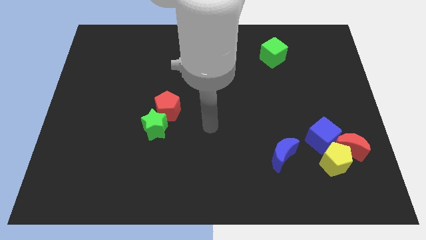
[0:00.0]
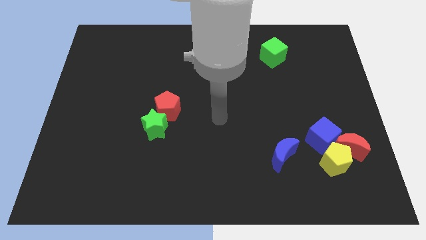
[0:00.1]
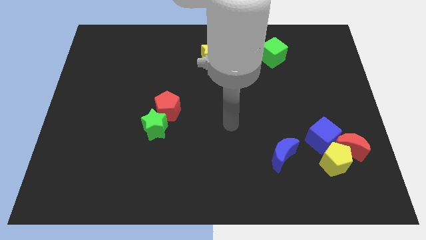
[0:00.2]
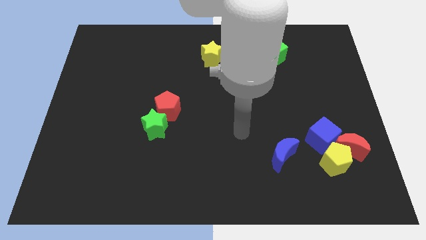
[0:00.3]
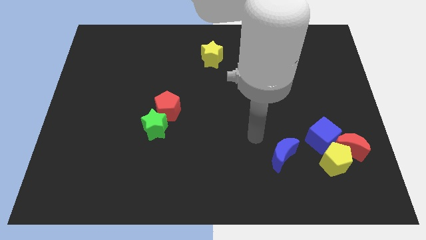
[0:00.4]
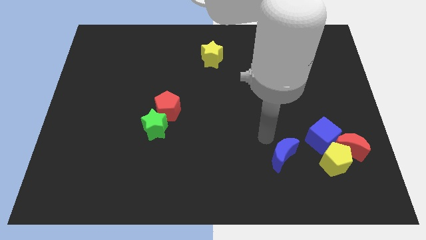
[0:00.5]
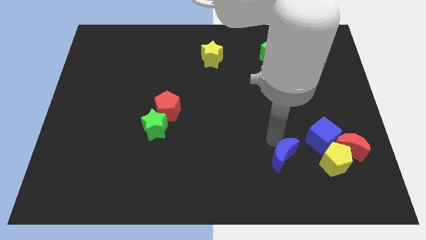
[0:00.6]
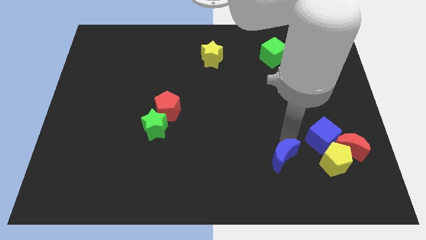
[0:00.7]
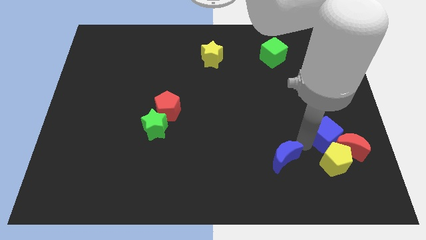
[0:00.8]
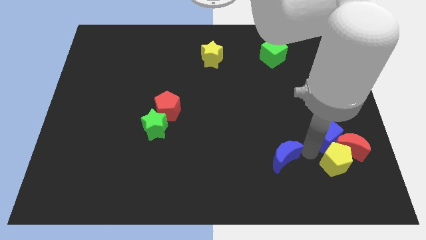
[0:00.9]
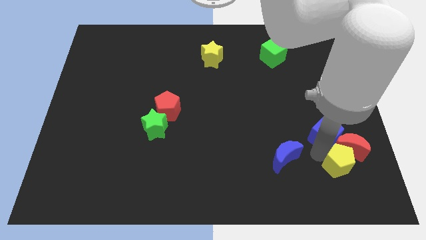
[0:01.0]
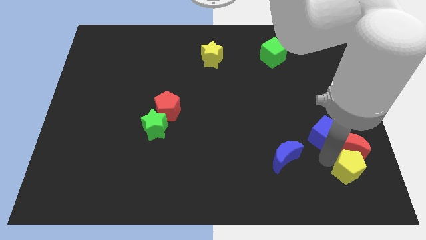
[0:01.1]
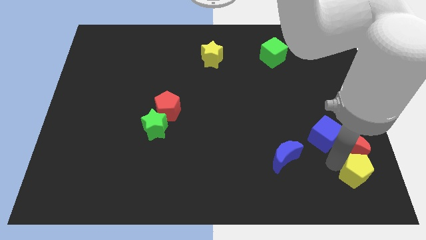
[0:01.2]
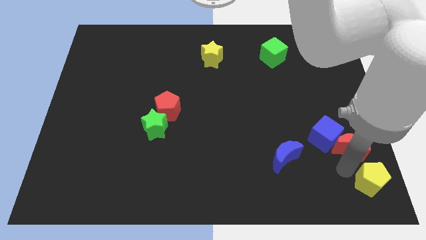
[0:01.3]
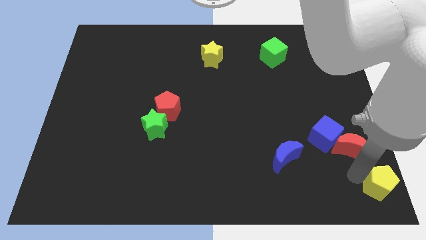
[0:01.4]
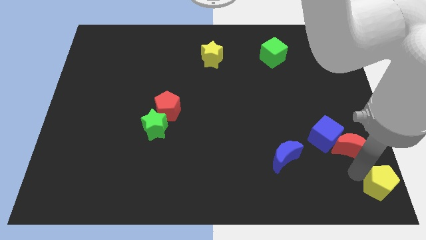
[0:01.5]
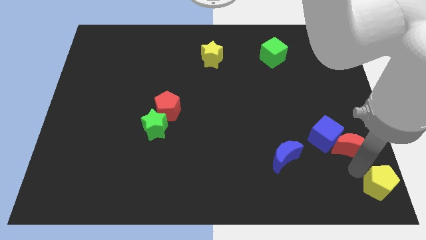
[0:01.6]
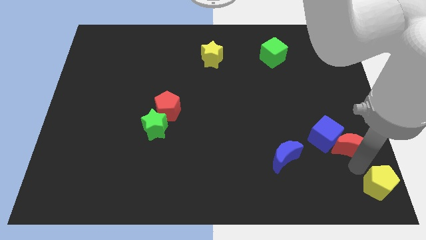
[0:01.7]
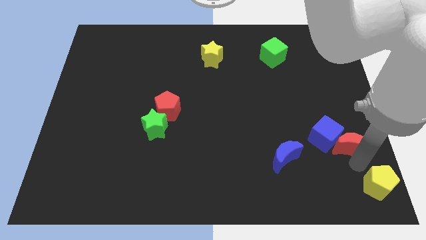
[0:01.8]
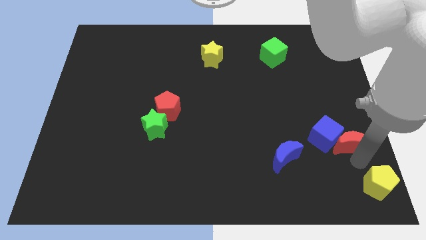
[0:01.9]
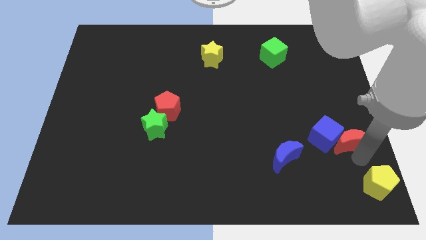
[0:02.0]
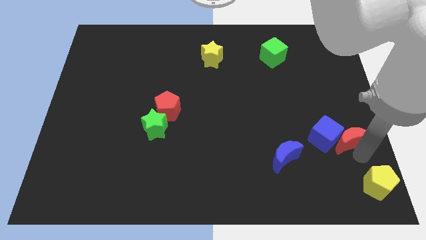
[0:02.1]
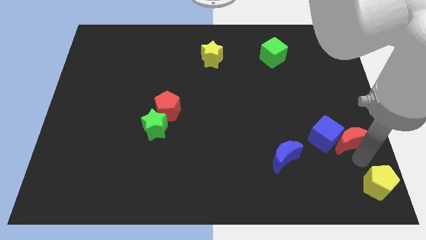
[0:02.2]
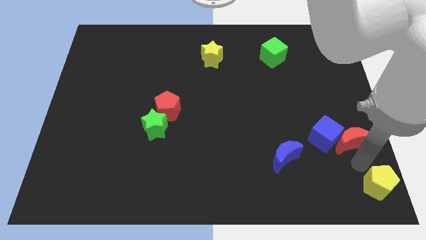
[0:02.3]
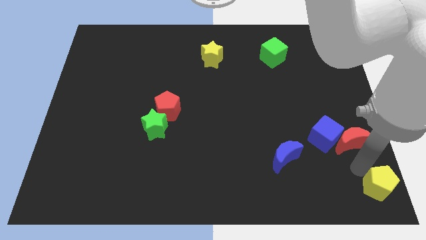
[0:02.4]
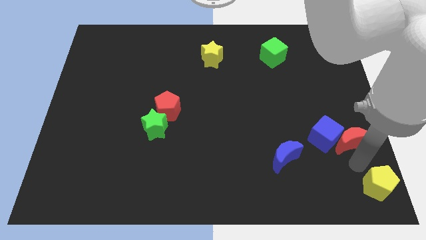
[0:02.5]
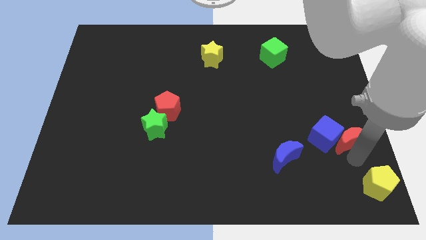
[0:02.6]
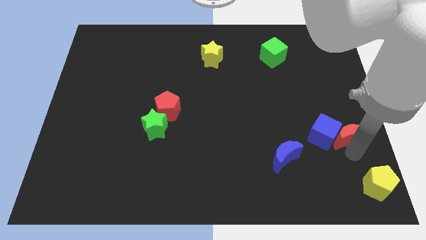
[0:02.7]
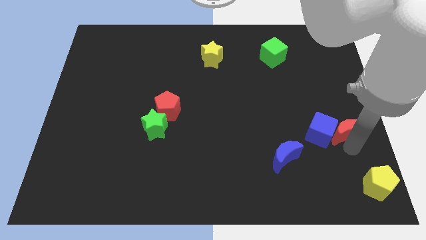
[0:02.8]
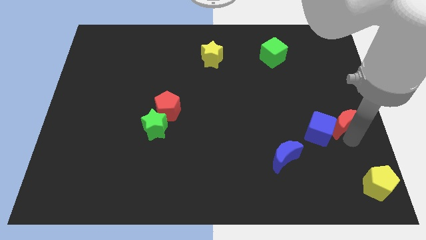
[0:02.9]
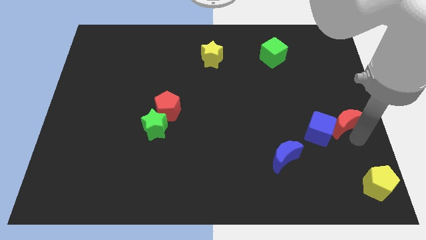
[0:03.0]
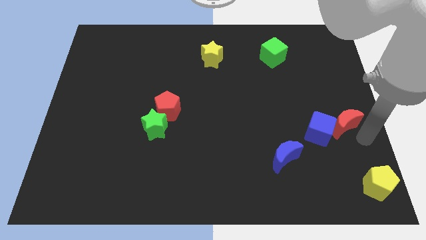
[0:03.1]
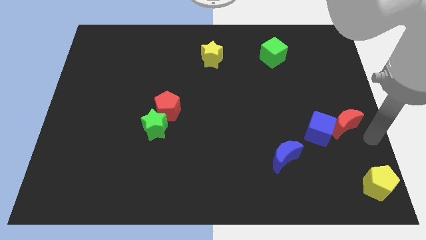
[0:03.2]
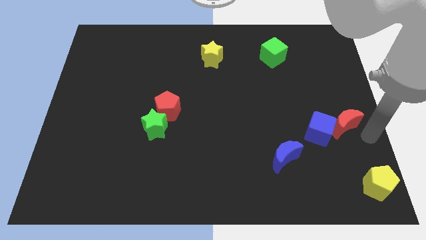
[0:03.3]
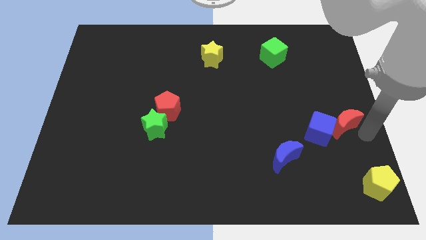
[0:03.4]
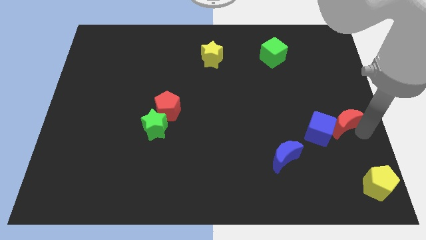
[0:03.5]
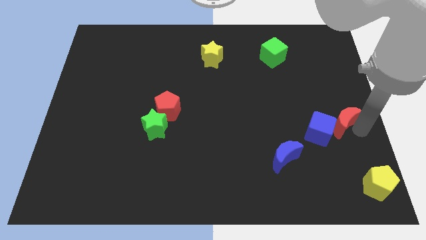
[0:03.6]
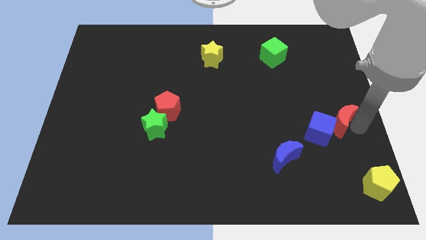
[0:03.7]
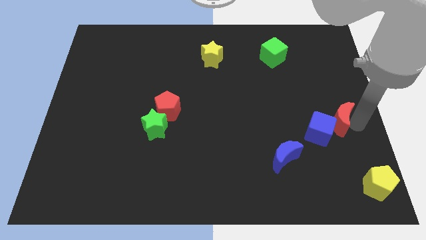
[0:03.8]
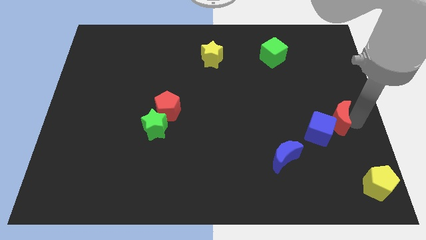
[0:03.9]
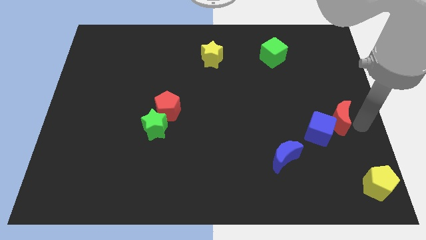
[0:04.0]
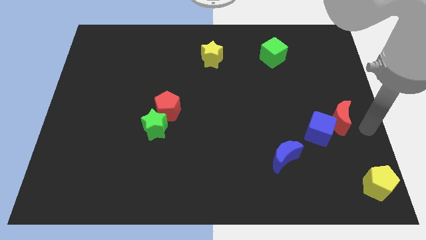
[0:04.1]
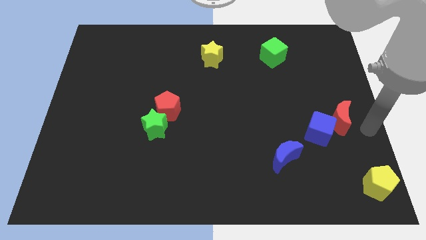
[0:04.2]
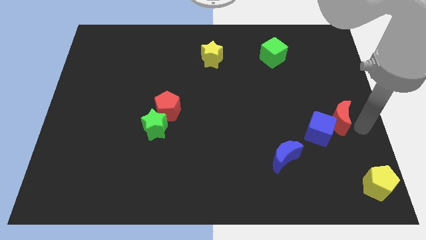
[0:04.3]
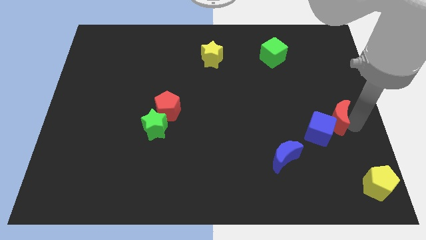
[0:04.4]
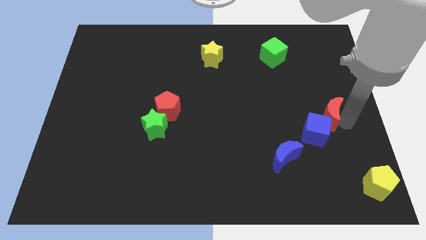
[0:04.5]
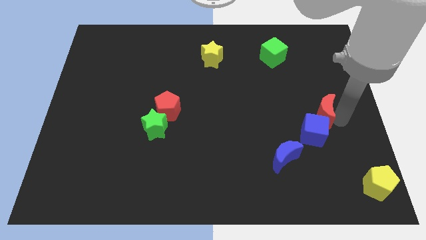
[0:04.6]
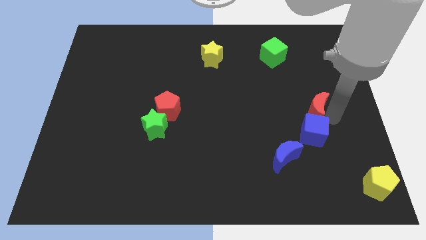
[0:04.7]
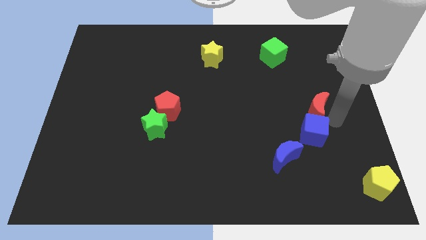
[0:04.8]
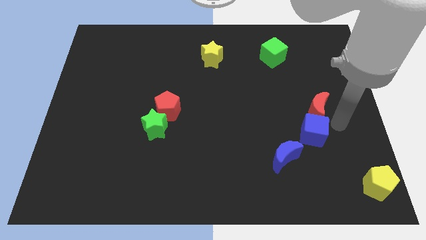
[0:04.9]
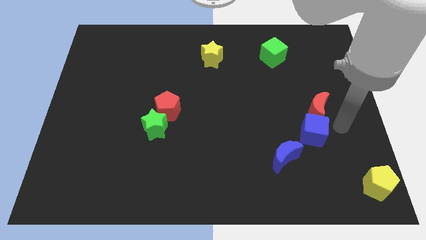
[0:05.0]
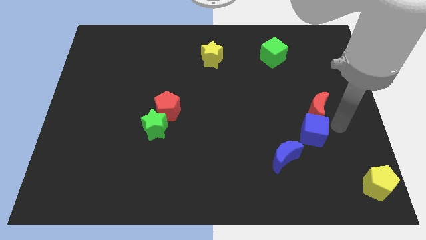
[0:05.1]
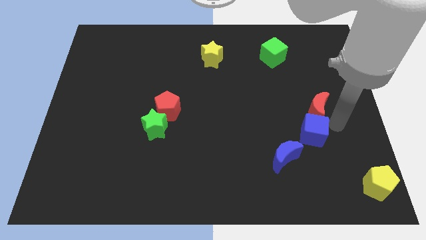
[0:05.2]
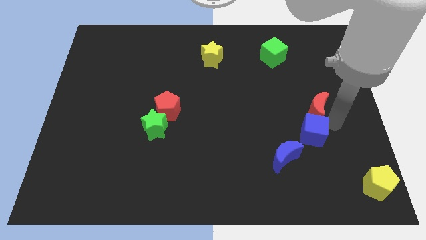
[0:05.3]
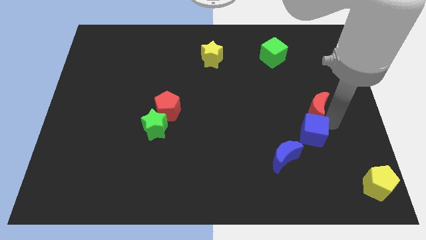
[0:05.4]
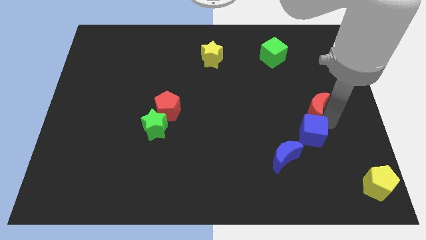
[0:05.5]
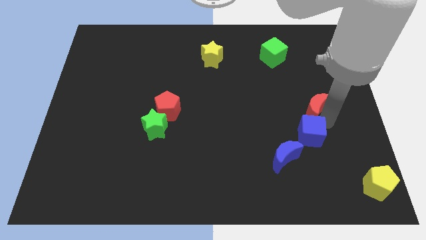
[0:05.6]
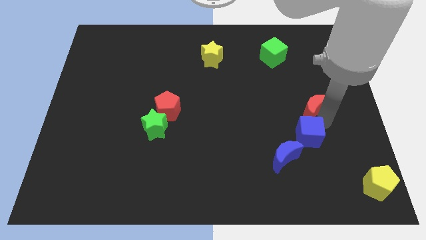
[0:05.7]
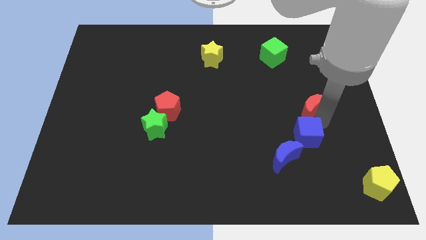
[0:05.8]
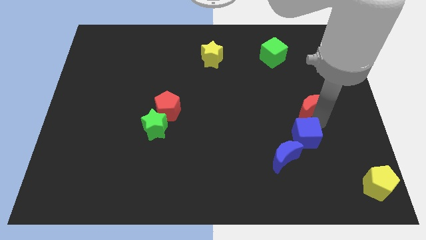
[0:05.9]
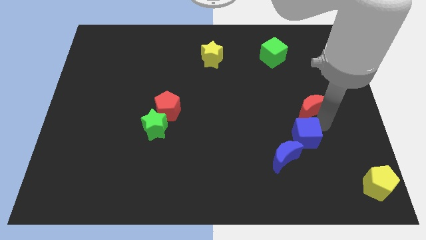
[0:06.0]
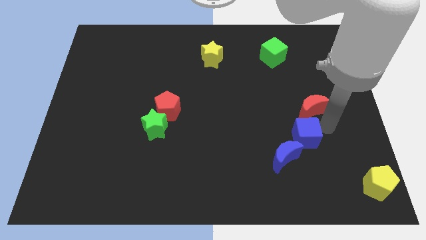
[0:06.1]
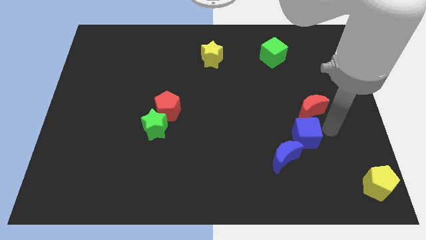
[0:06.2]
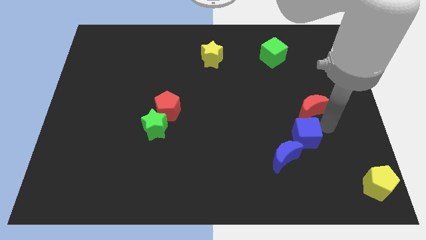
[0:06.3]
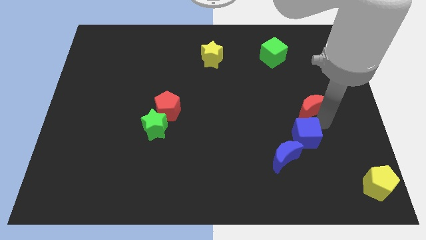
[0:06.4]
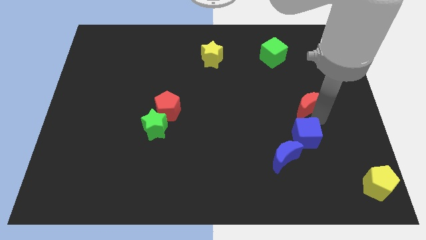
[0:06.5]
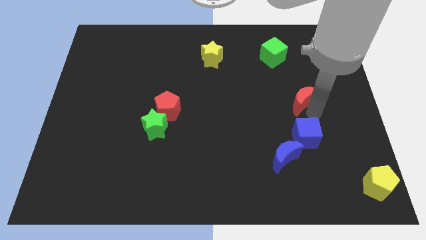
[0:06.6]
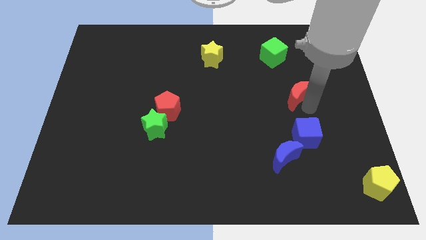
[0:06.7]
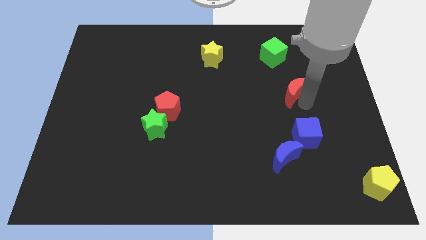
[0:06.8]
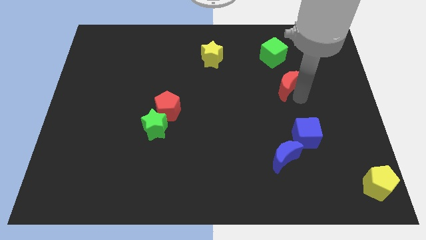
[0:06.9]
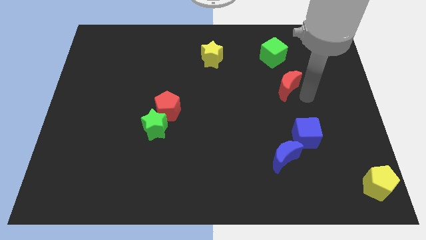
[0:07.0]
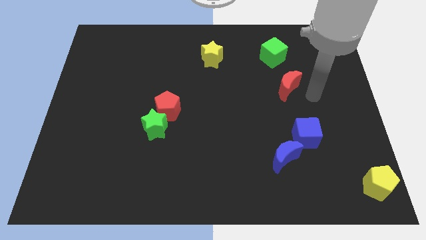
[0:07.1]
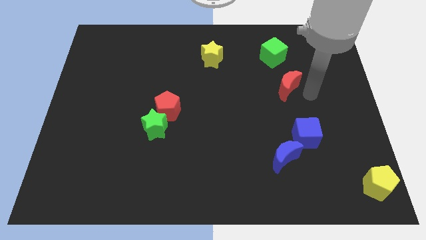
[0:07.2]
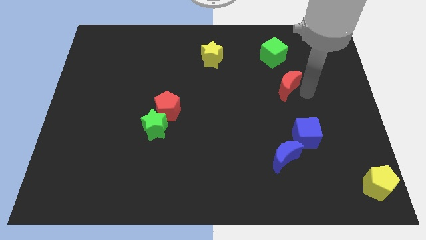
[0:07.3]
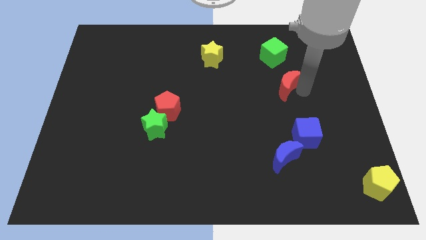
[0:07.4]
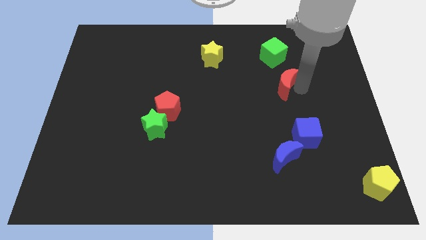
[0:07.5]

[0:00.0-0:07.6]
slide the red moon diagonally up and left

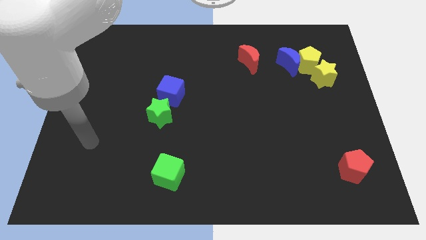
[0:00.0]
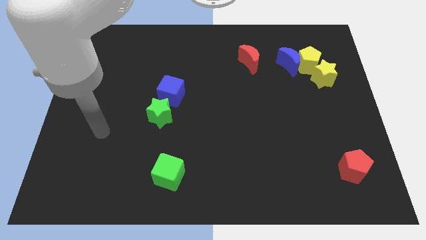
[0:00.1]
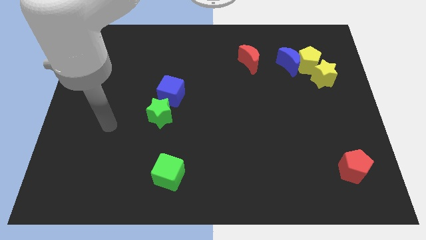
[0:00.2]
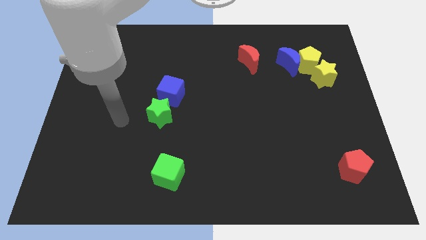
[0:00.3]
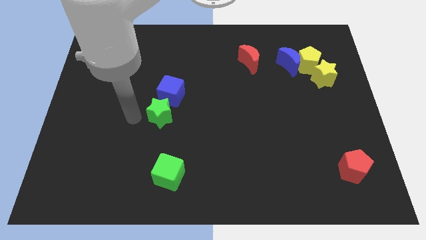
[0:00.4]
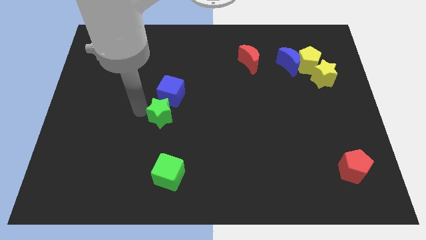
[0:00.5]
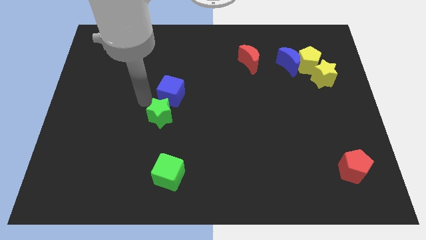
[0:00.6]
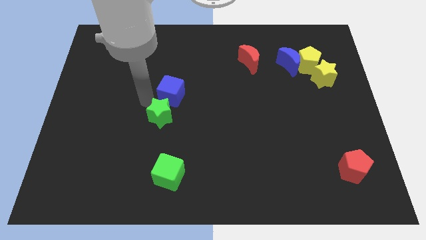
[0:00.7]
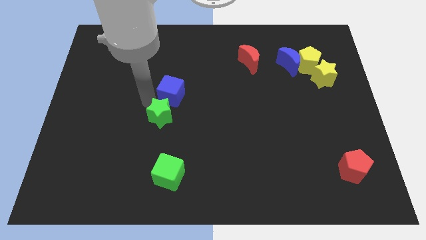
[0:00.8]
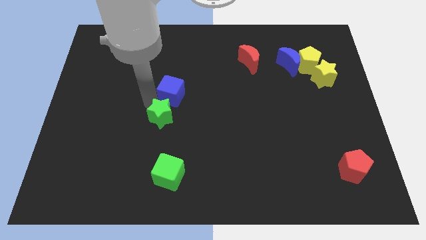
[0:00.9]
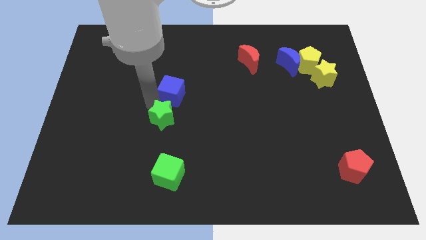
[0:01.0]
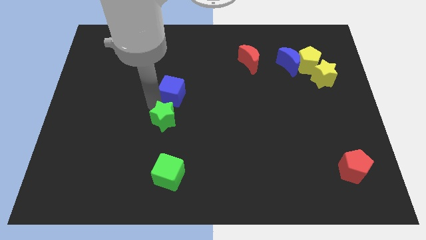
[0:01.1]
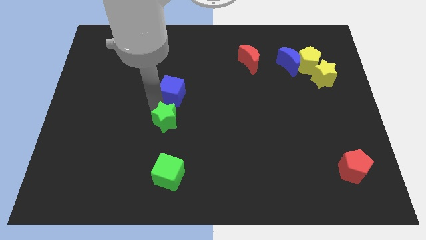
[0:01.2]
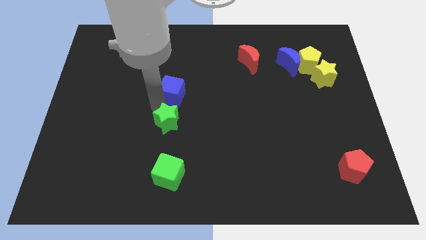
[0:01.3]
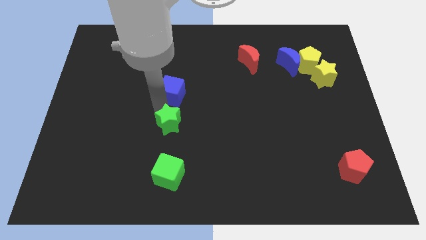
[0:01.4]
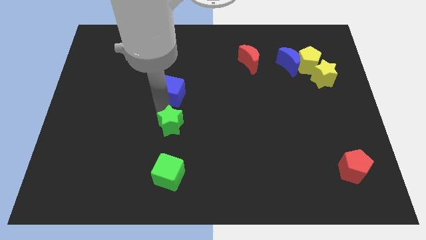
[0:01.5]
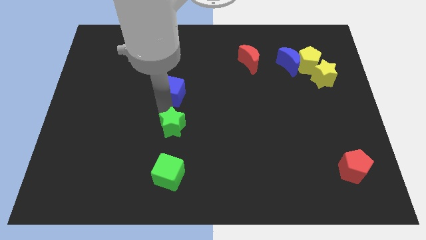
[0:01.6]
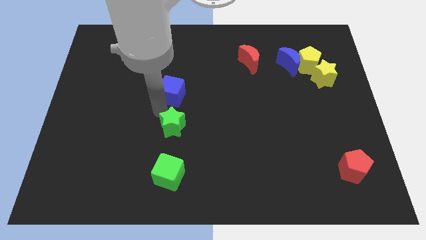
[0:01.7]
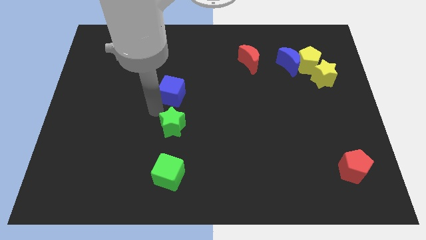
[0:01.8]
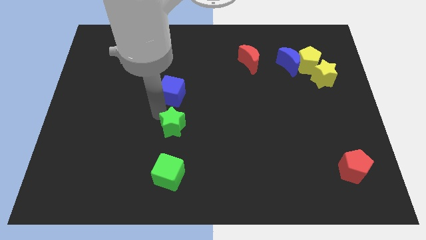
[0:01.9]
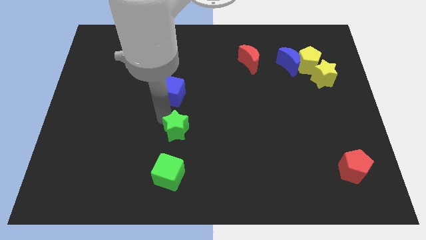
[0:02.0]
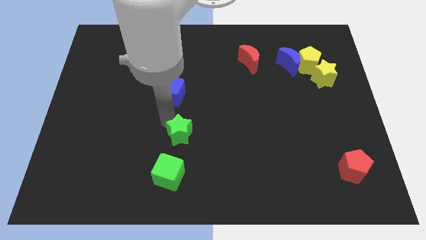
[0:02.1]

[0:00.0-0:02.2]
slightly push the green star downwards and to the right diagonally
